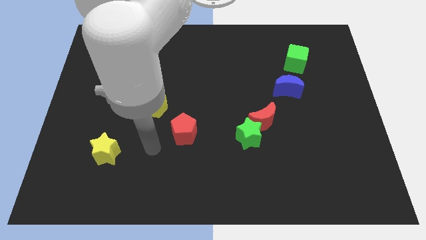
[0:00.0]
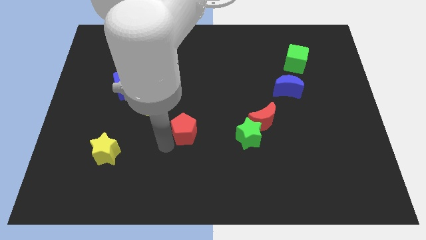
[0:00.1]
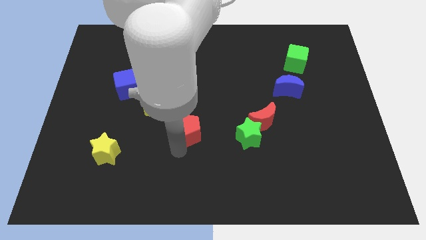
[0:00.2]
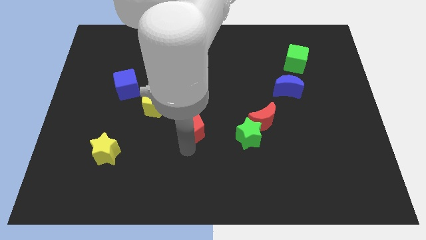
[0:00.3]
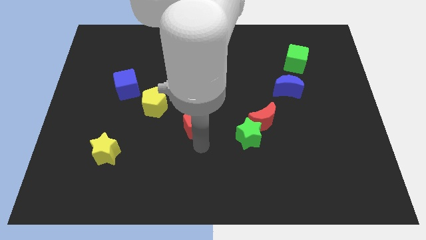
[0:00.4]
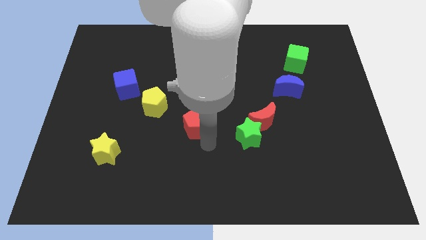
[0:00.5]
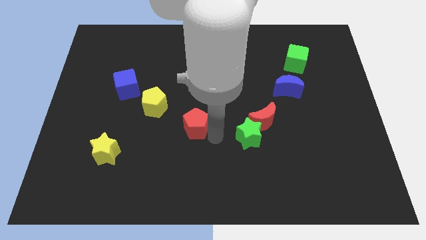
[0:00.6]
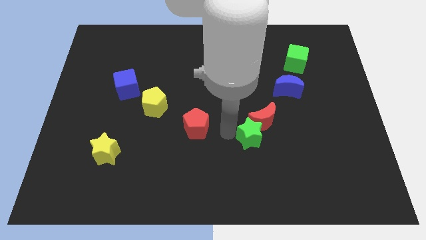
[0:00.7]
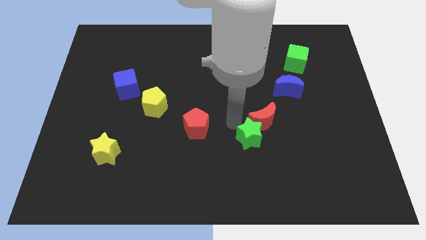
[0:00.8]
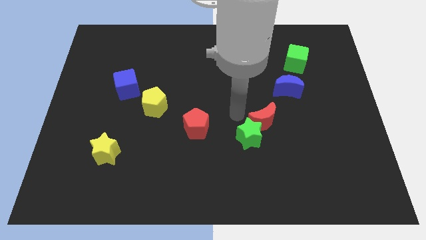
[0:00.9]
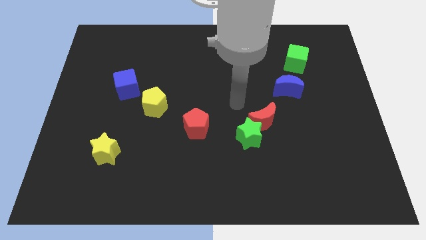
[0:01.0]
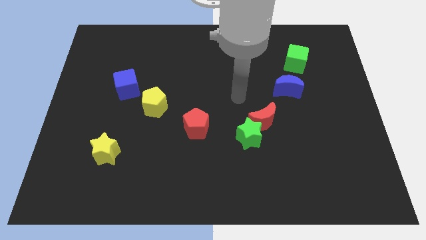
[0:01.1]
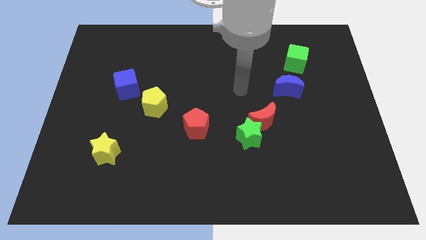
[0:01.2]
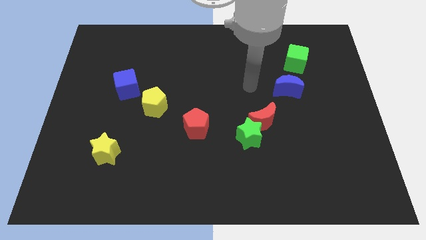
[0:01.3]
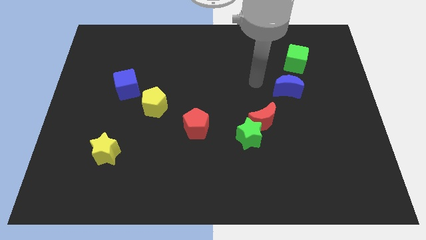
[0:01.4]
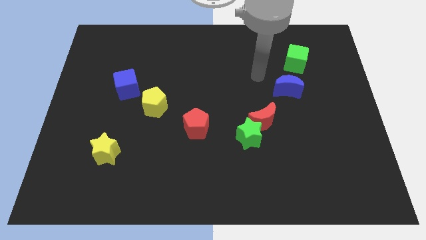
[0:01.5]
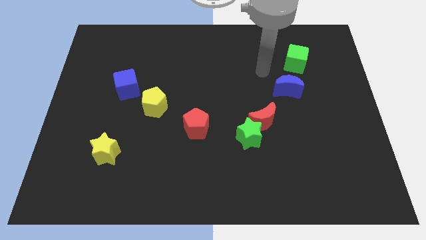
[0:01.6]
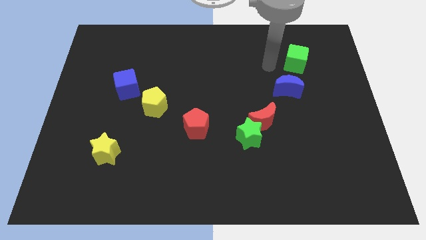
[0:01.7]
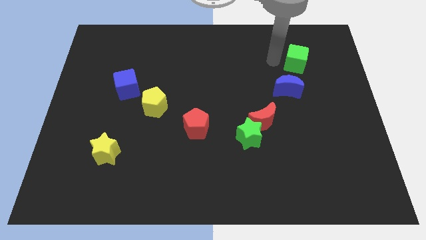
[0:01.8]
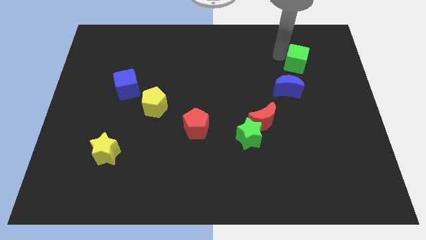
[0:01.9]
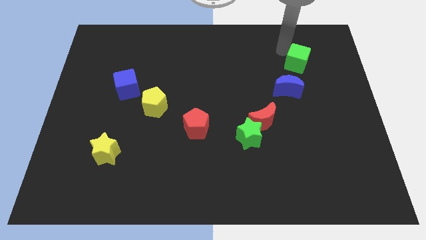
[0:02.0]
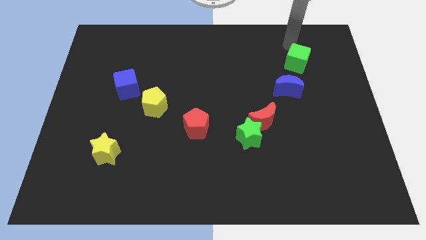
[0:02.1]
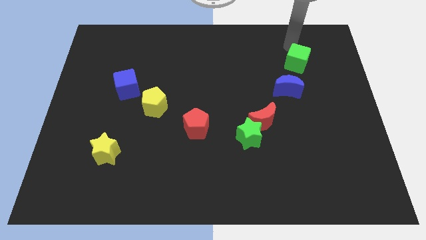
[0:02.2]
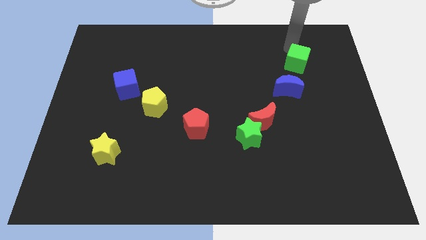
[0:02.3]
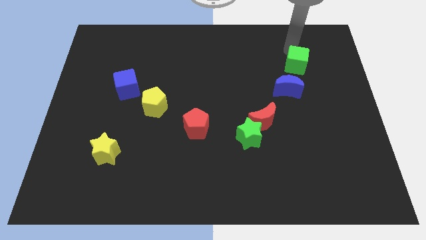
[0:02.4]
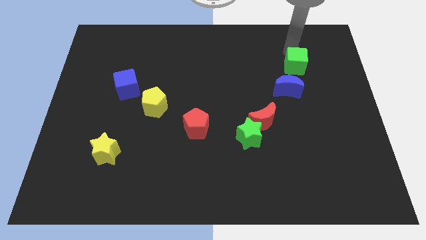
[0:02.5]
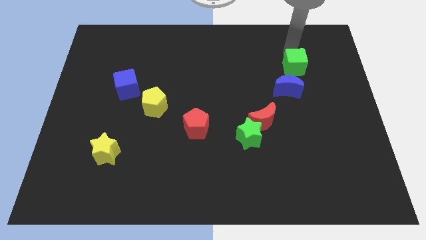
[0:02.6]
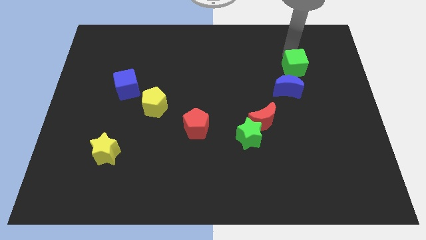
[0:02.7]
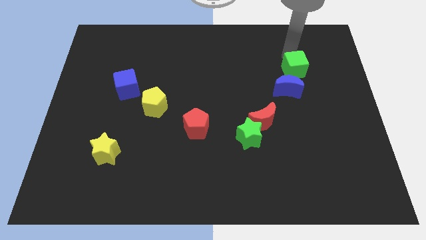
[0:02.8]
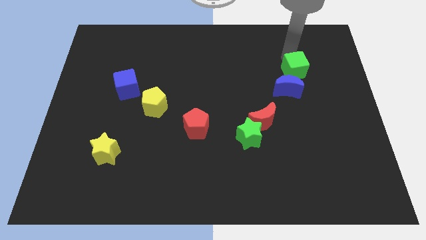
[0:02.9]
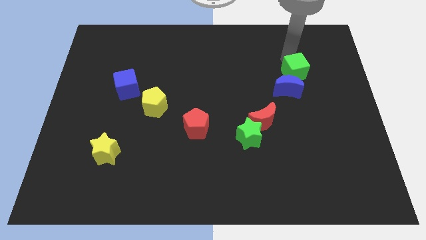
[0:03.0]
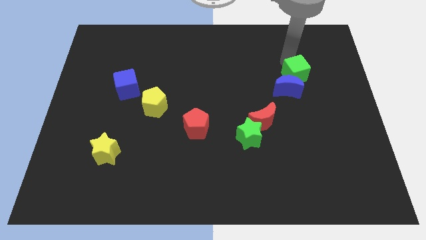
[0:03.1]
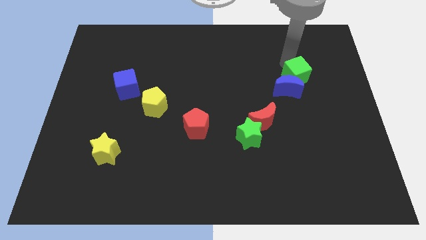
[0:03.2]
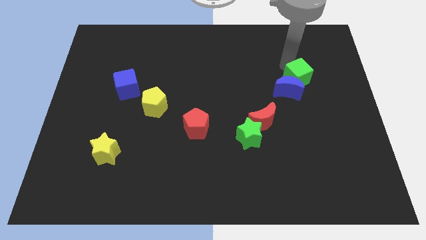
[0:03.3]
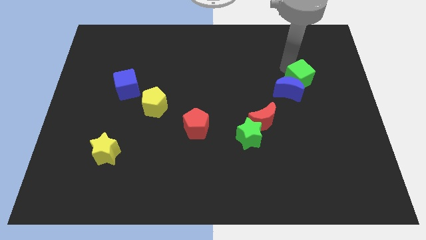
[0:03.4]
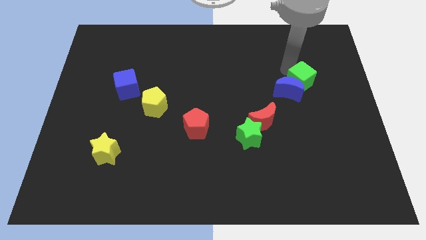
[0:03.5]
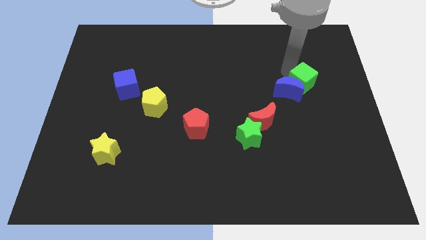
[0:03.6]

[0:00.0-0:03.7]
slightly push the green cube down

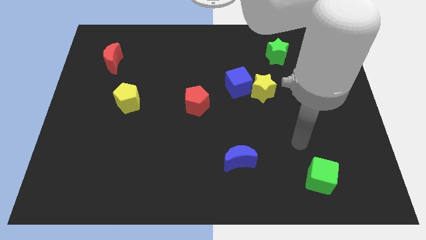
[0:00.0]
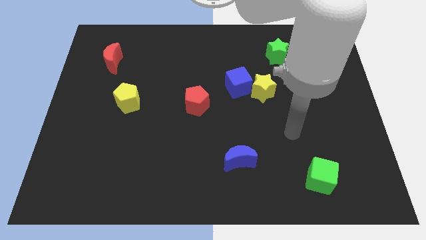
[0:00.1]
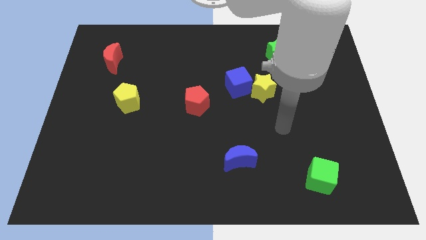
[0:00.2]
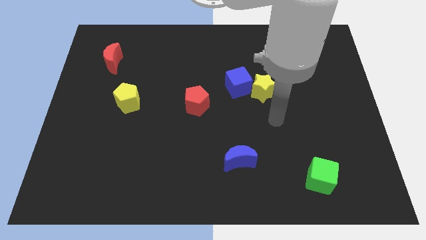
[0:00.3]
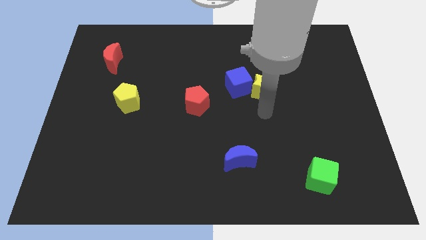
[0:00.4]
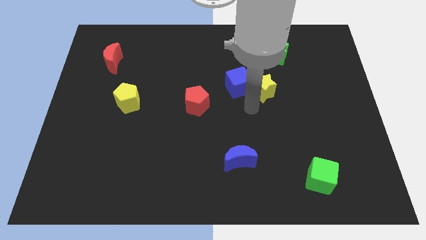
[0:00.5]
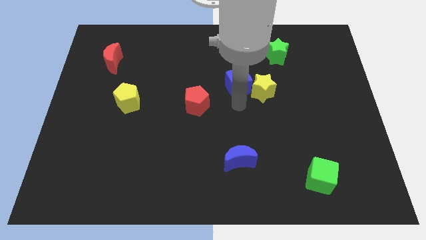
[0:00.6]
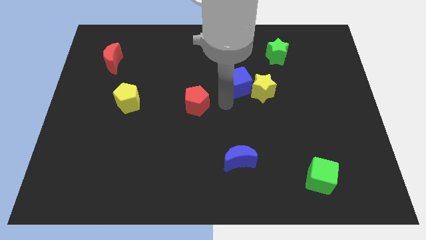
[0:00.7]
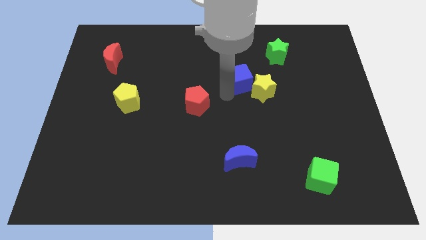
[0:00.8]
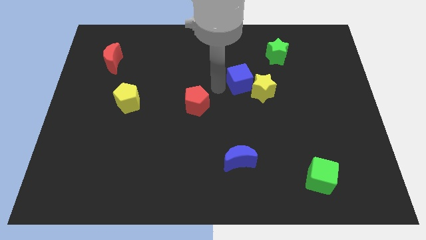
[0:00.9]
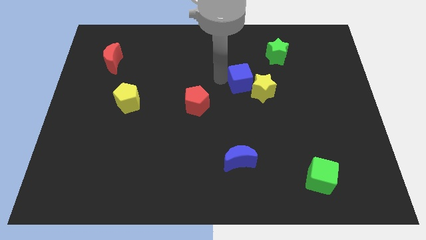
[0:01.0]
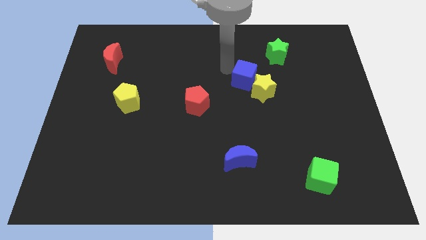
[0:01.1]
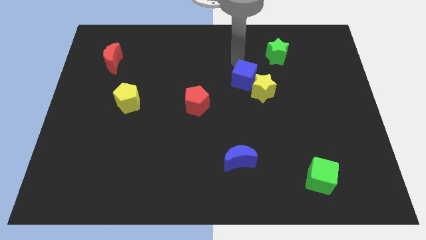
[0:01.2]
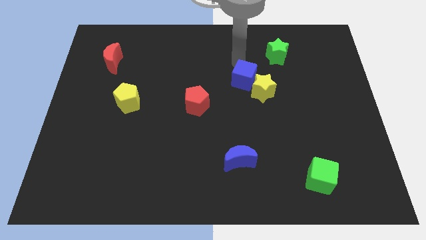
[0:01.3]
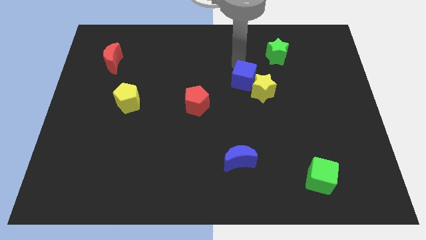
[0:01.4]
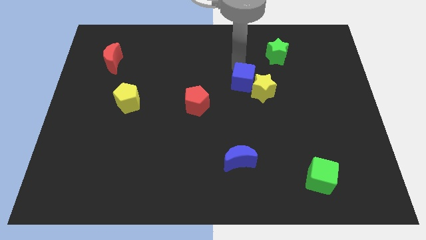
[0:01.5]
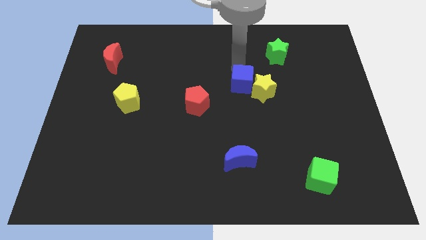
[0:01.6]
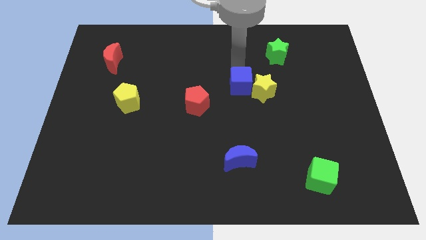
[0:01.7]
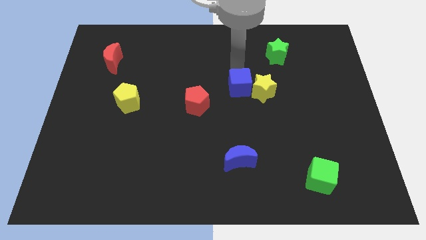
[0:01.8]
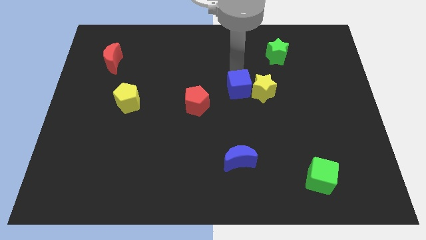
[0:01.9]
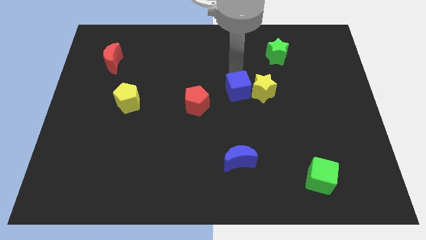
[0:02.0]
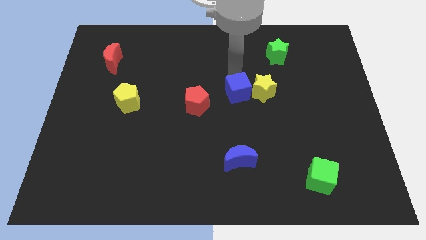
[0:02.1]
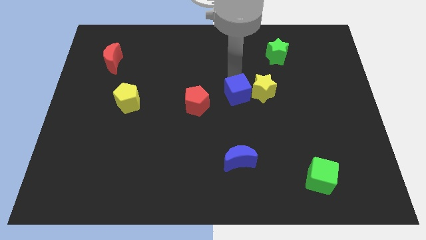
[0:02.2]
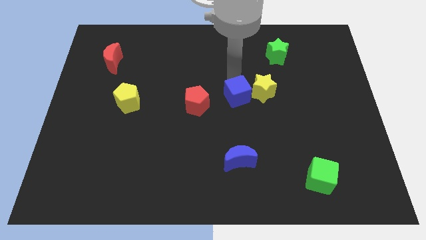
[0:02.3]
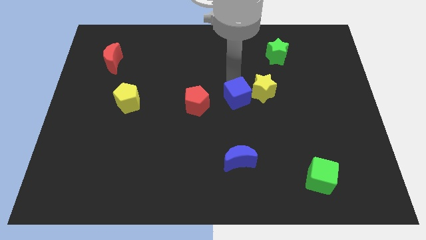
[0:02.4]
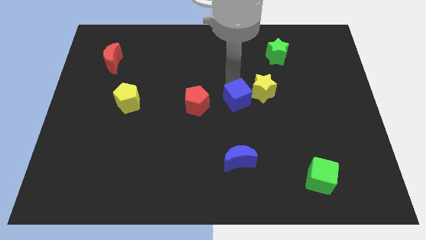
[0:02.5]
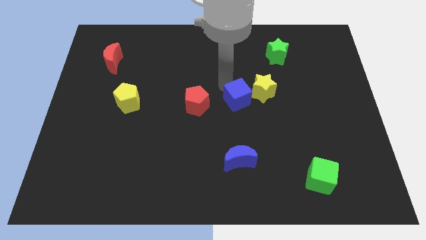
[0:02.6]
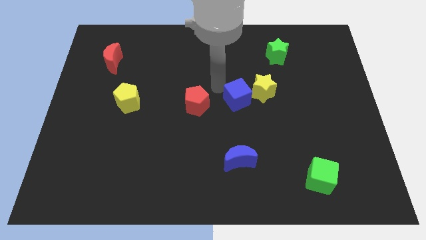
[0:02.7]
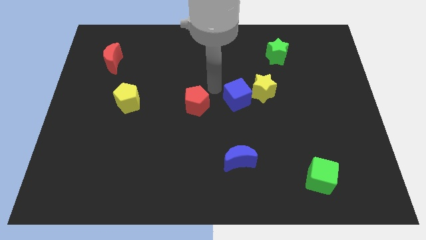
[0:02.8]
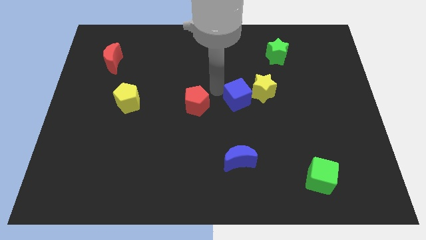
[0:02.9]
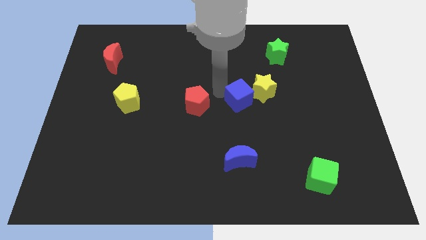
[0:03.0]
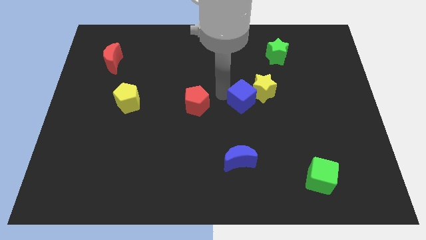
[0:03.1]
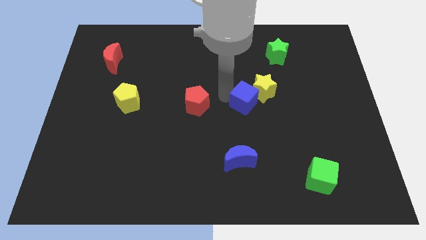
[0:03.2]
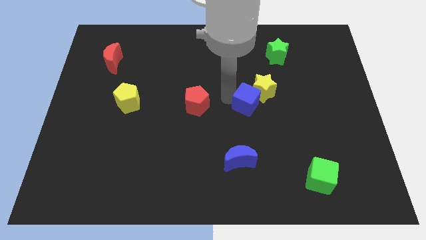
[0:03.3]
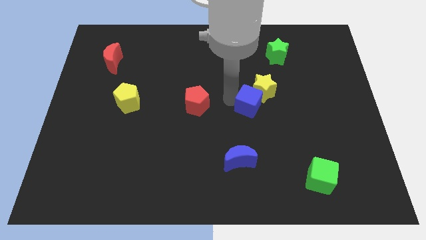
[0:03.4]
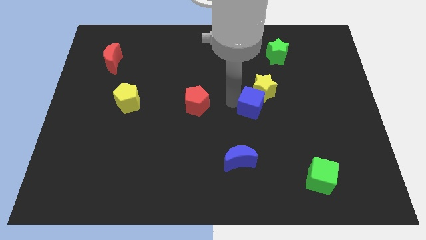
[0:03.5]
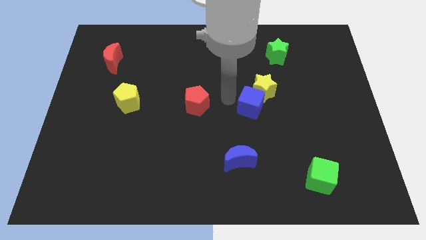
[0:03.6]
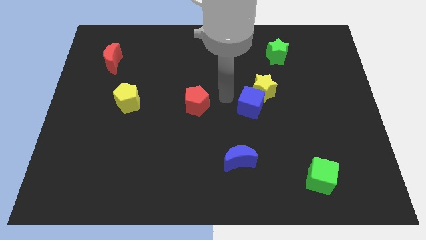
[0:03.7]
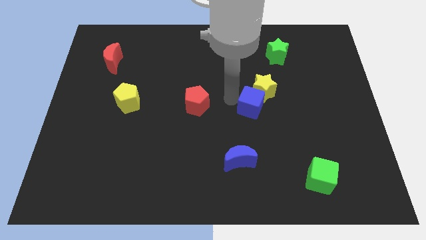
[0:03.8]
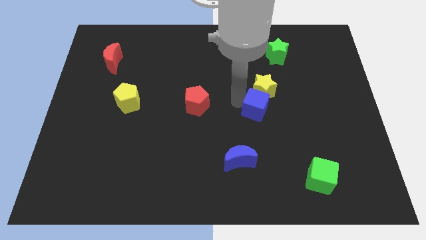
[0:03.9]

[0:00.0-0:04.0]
push the blue cube diagonally down and to the right a little bit
